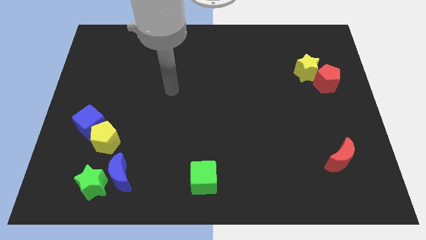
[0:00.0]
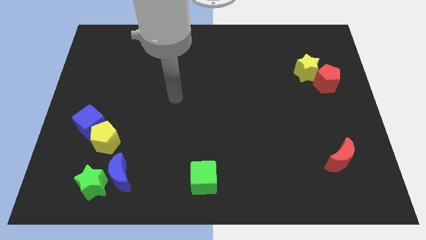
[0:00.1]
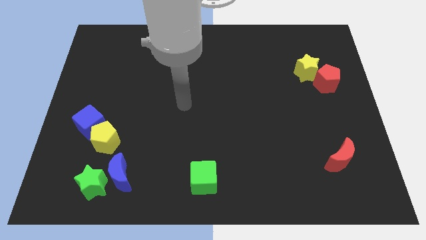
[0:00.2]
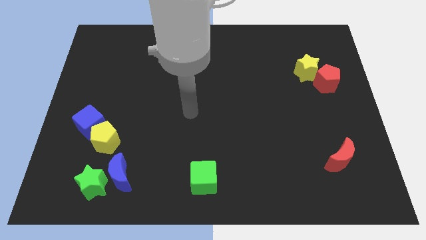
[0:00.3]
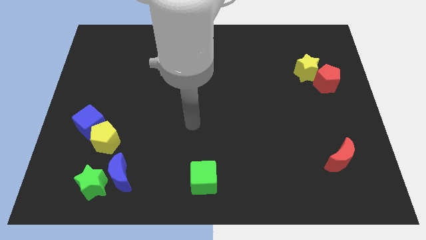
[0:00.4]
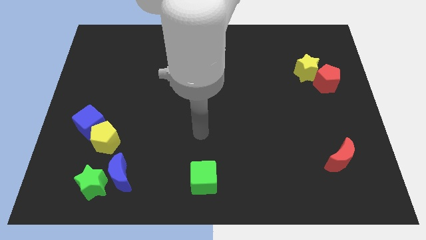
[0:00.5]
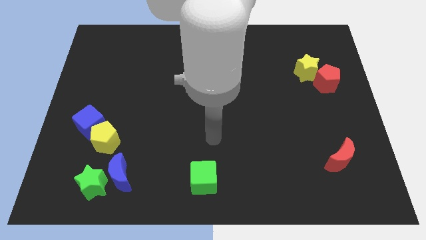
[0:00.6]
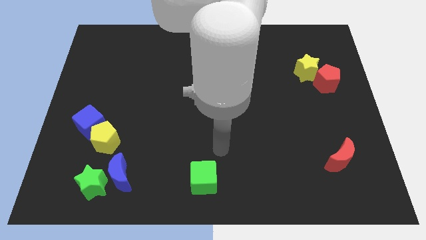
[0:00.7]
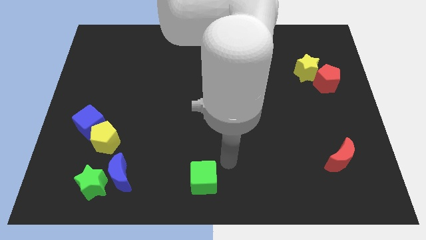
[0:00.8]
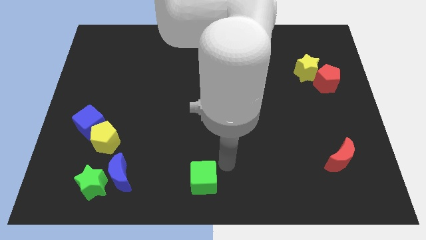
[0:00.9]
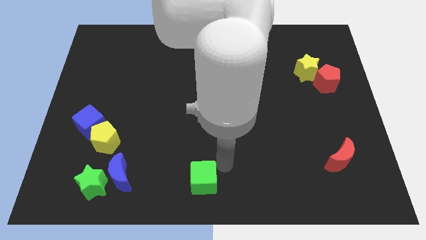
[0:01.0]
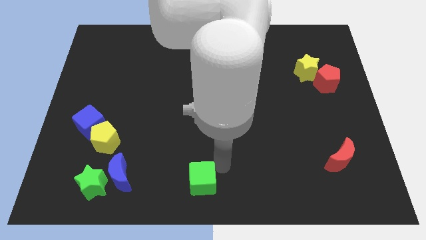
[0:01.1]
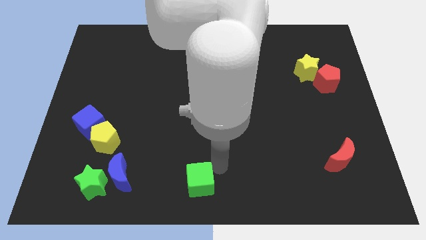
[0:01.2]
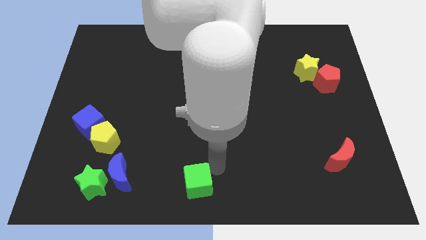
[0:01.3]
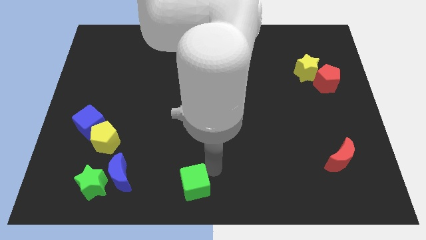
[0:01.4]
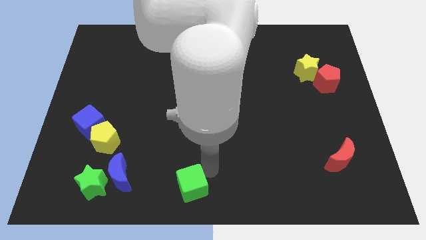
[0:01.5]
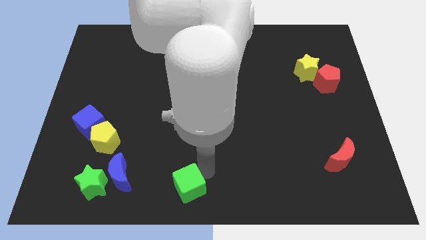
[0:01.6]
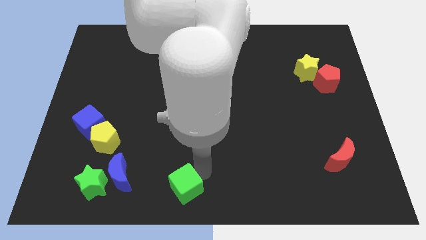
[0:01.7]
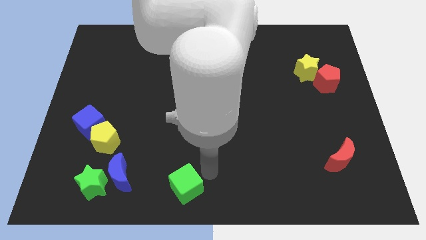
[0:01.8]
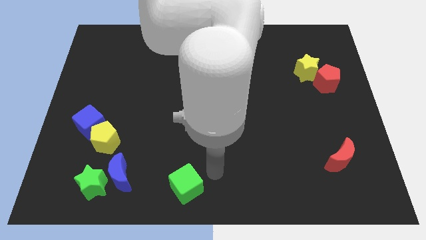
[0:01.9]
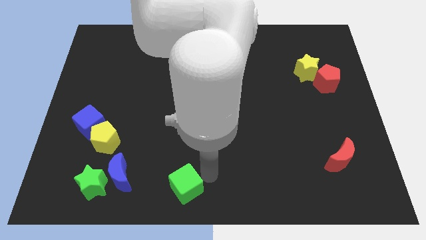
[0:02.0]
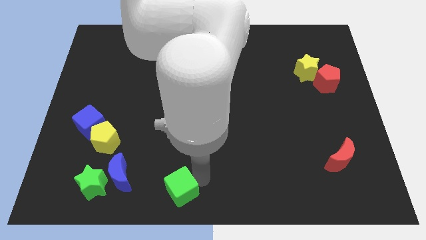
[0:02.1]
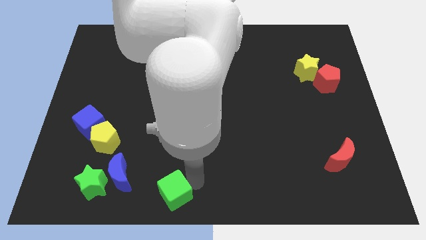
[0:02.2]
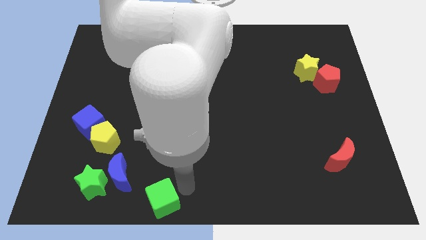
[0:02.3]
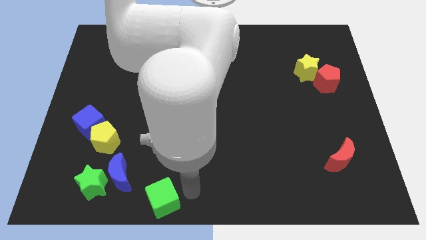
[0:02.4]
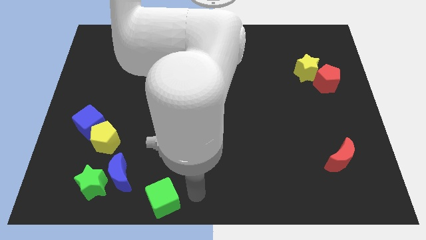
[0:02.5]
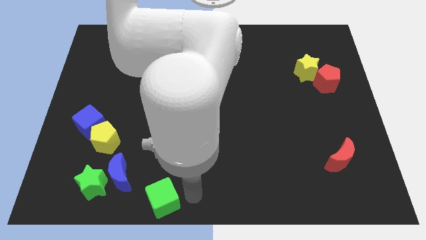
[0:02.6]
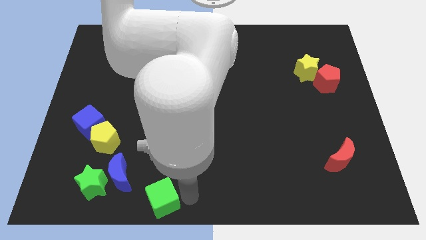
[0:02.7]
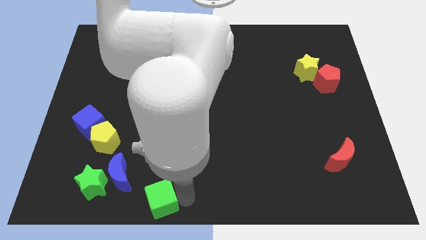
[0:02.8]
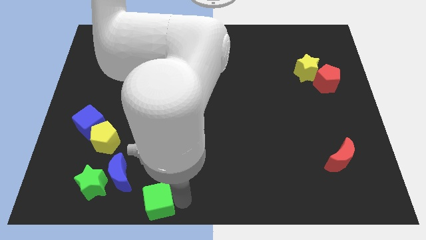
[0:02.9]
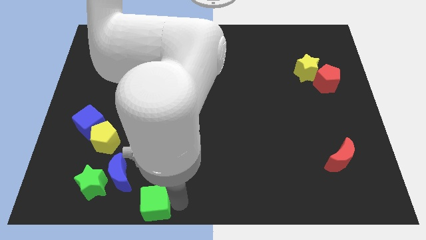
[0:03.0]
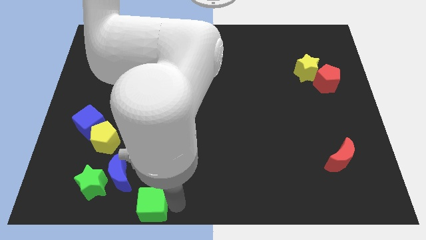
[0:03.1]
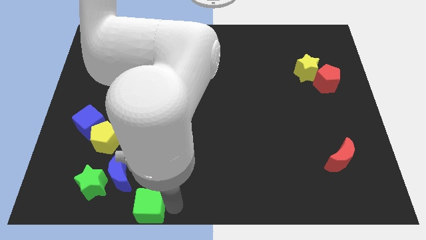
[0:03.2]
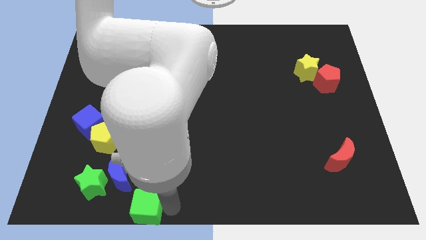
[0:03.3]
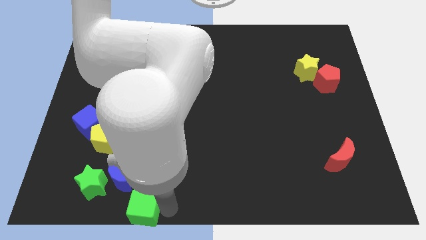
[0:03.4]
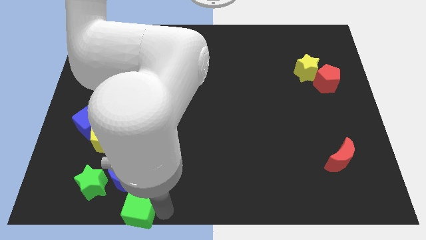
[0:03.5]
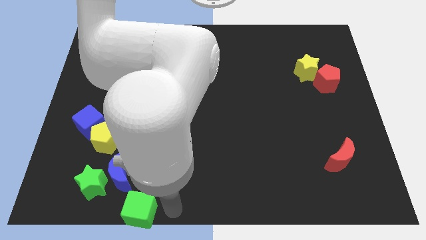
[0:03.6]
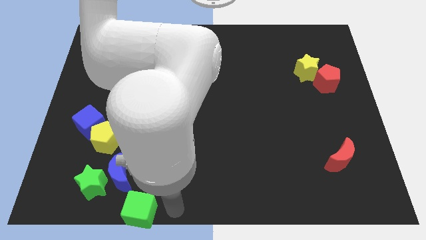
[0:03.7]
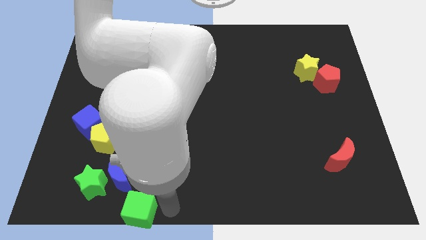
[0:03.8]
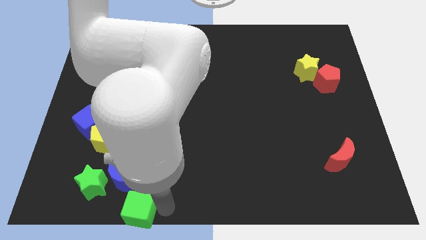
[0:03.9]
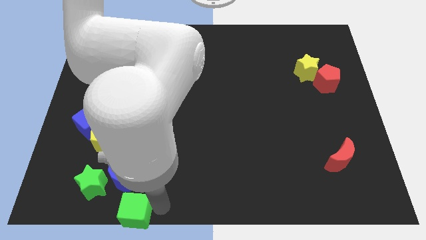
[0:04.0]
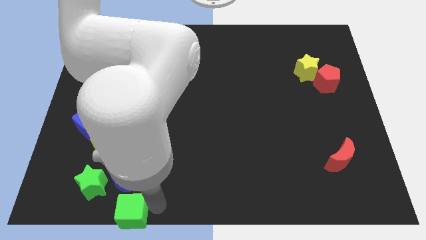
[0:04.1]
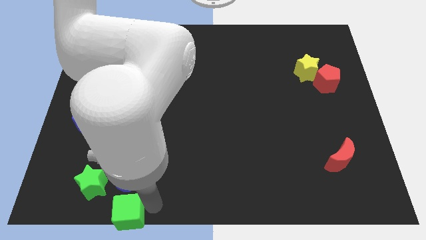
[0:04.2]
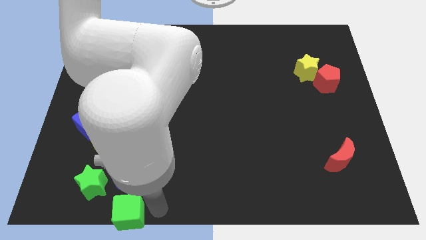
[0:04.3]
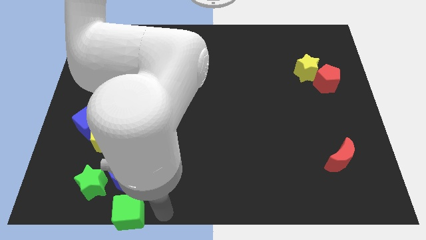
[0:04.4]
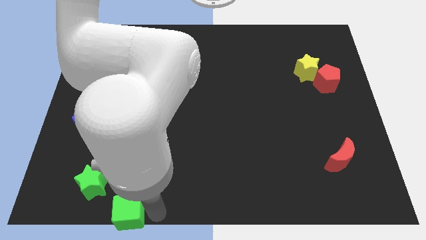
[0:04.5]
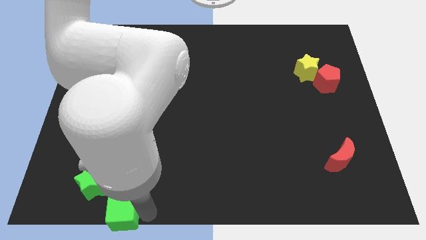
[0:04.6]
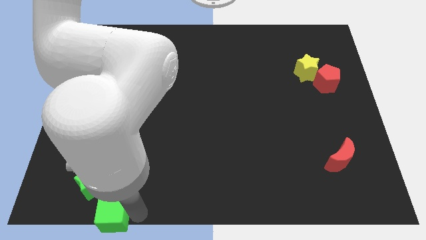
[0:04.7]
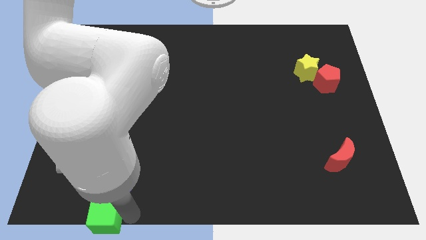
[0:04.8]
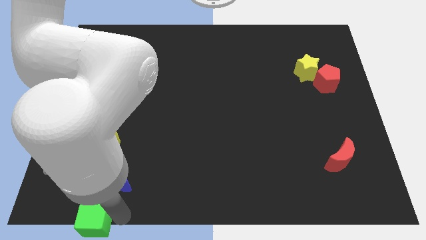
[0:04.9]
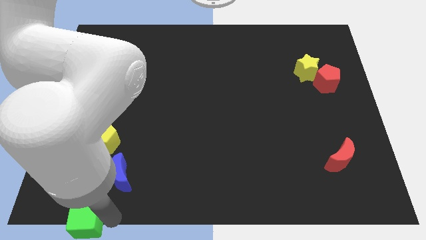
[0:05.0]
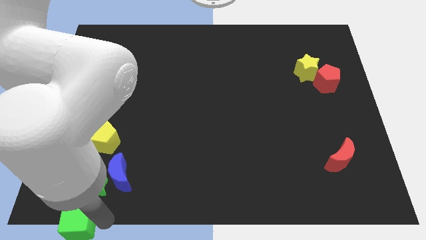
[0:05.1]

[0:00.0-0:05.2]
put the green cube to the bottom left corner

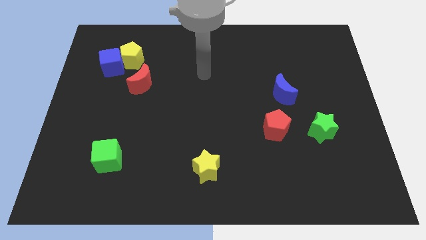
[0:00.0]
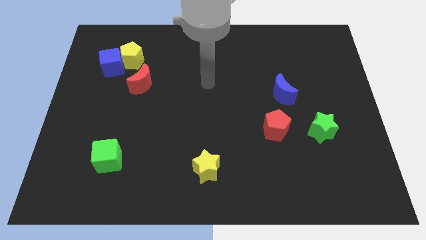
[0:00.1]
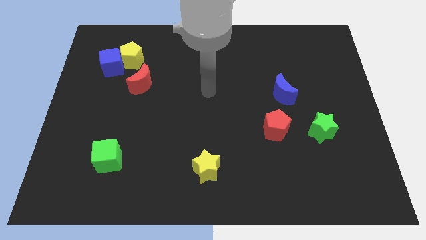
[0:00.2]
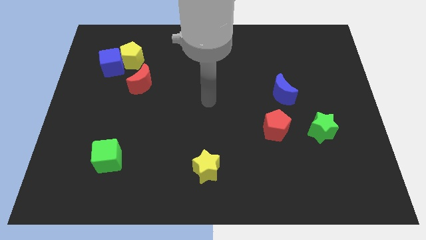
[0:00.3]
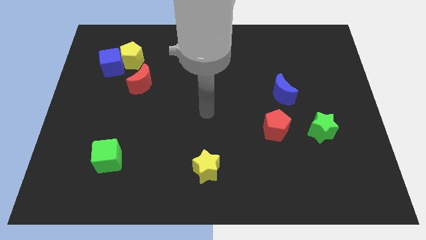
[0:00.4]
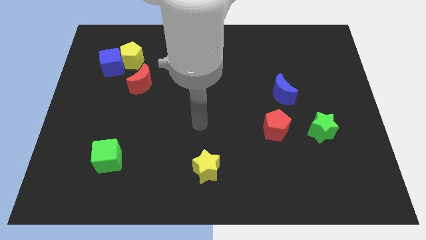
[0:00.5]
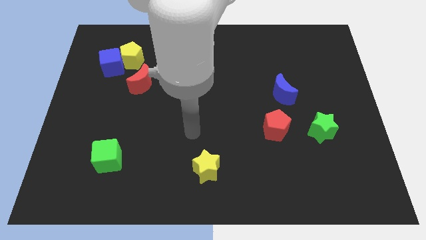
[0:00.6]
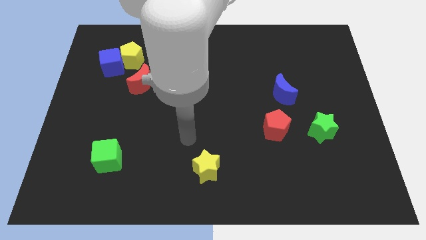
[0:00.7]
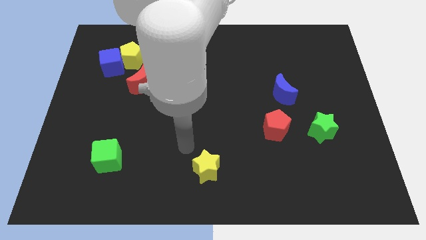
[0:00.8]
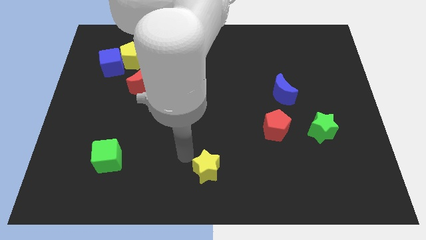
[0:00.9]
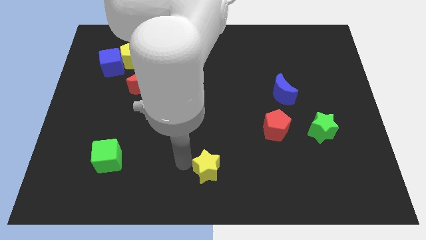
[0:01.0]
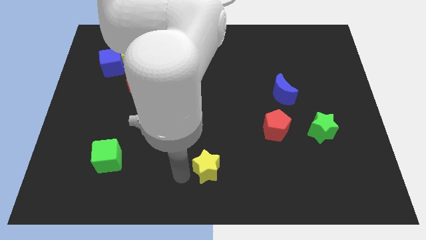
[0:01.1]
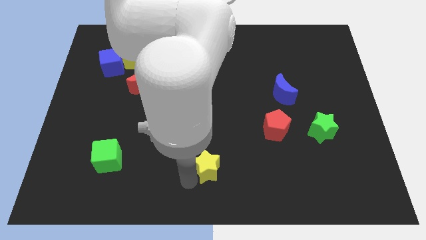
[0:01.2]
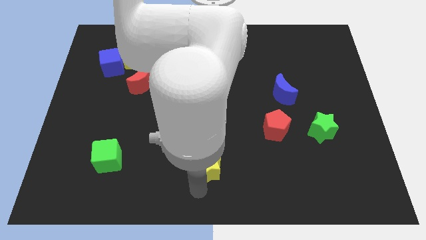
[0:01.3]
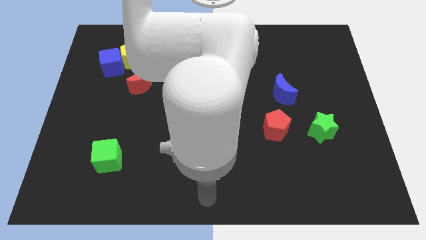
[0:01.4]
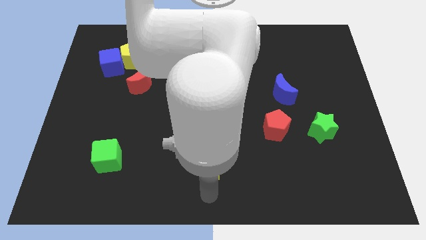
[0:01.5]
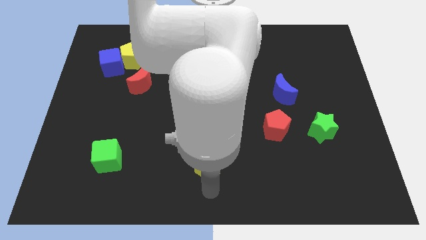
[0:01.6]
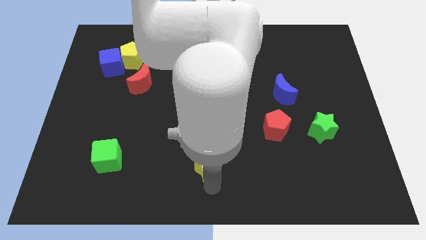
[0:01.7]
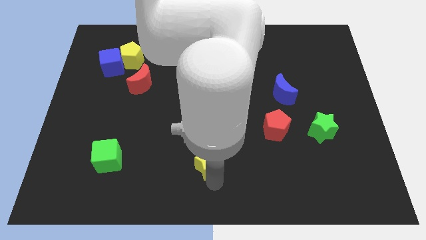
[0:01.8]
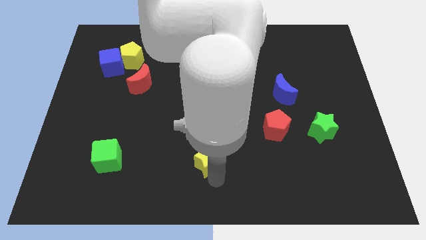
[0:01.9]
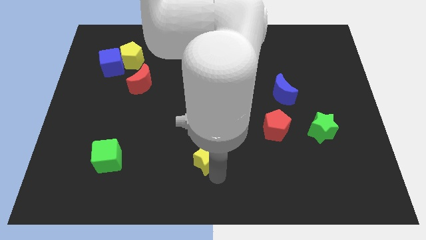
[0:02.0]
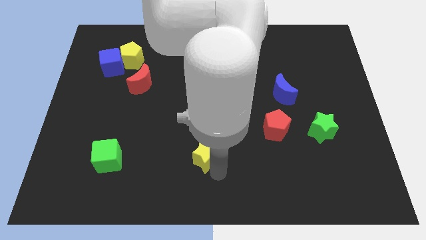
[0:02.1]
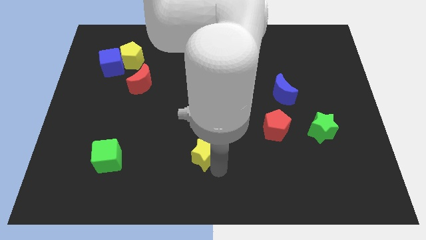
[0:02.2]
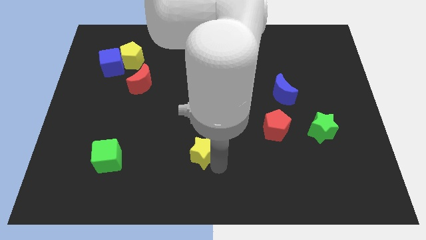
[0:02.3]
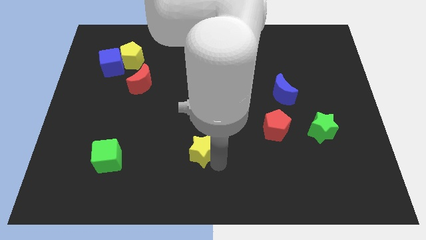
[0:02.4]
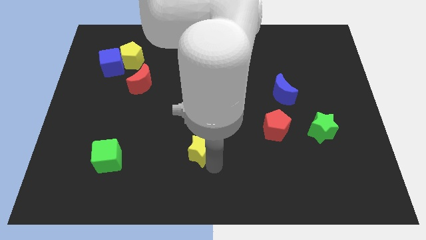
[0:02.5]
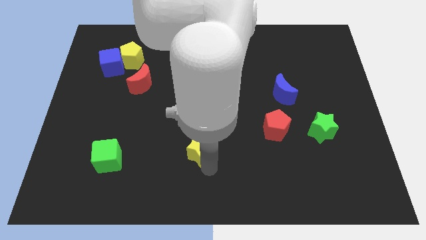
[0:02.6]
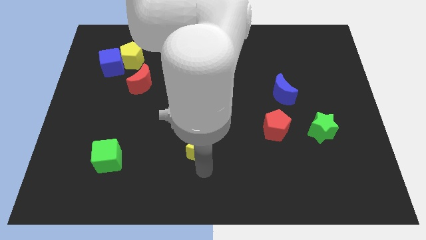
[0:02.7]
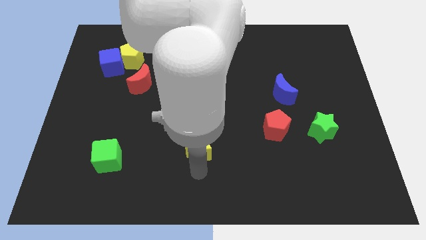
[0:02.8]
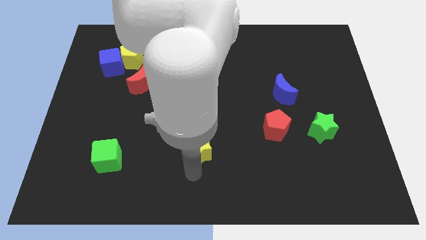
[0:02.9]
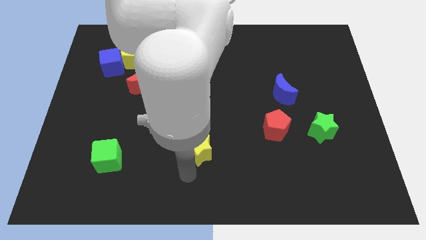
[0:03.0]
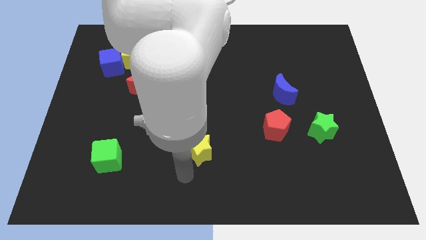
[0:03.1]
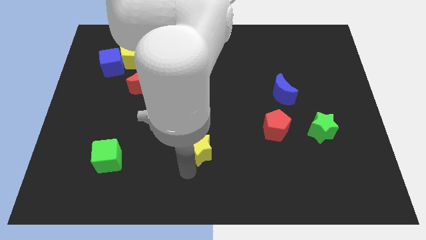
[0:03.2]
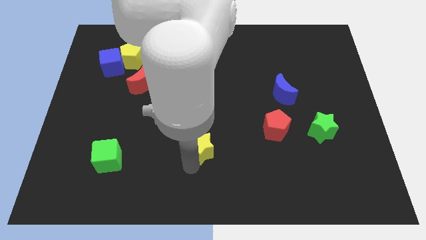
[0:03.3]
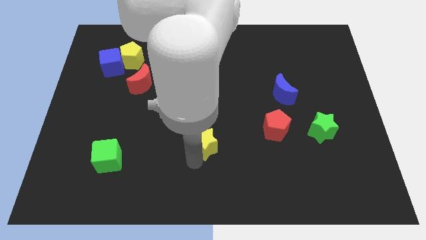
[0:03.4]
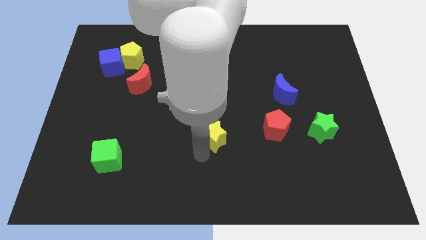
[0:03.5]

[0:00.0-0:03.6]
slide the yellow star to the middle of the board

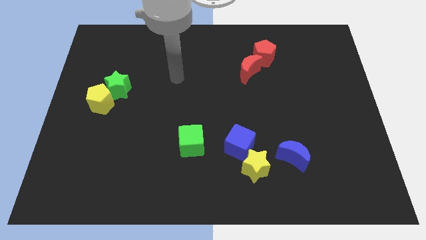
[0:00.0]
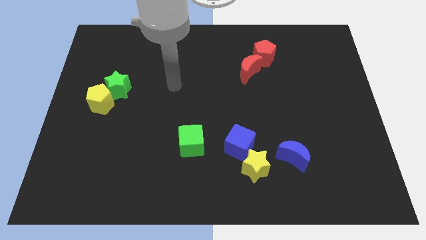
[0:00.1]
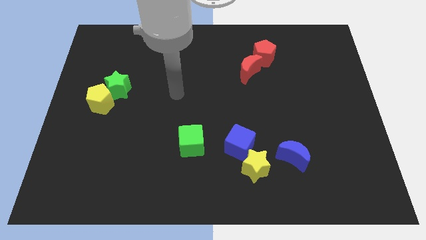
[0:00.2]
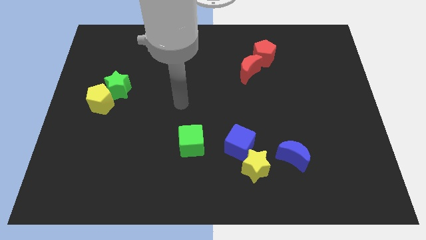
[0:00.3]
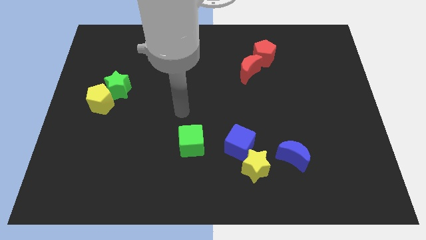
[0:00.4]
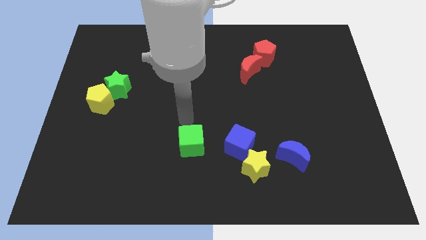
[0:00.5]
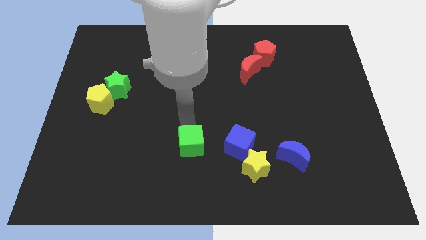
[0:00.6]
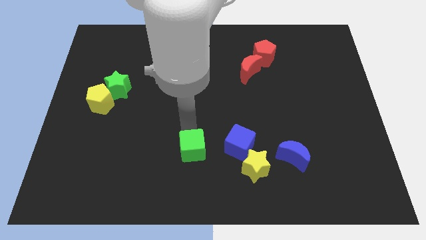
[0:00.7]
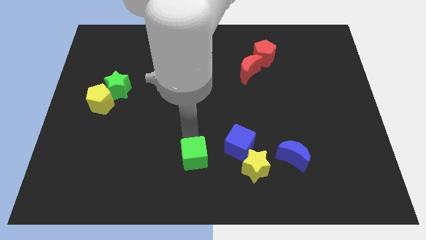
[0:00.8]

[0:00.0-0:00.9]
move the green cube to the bottom
